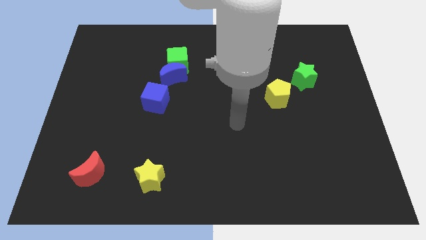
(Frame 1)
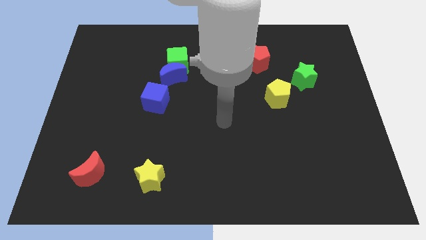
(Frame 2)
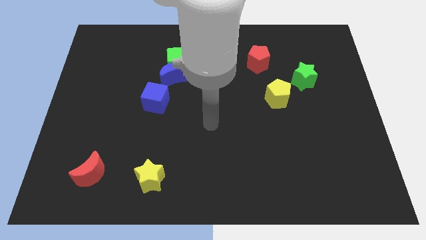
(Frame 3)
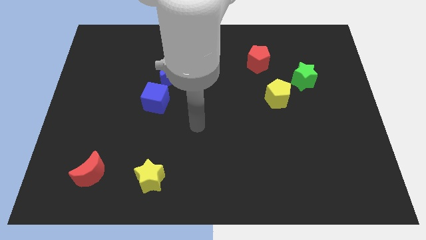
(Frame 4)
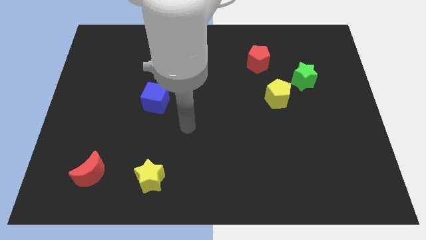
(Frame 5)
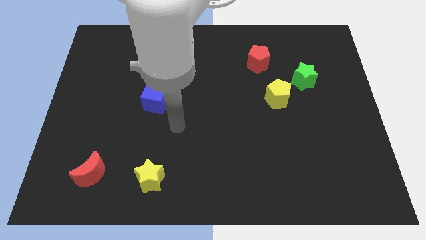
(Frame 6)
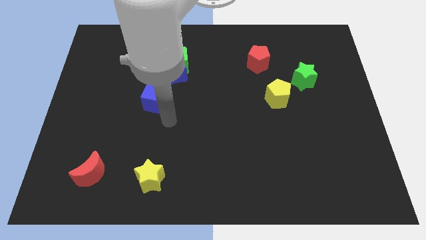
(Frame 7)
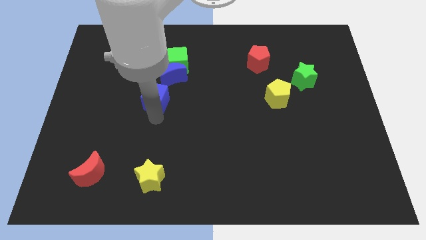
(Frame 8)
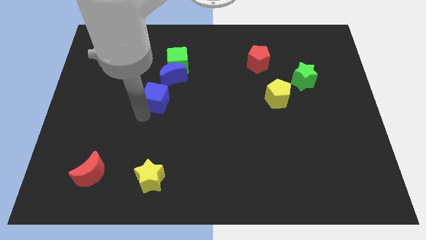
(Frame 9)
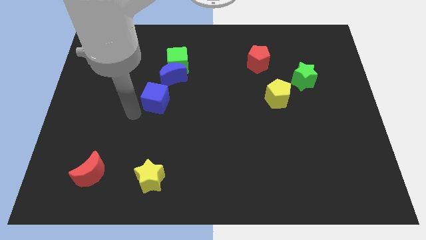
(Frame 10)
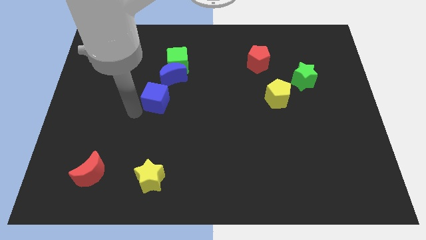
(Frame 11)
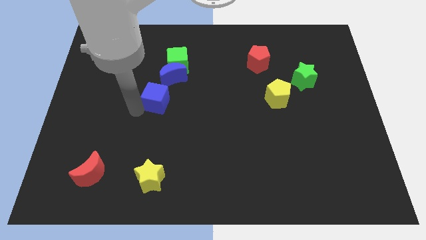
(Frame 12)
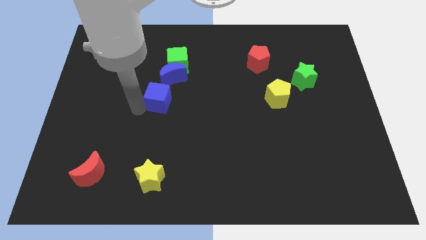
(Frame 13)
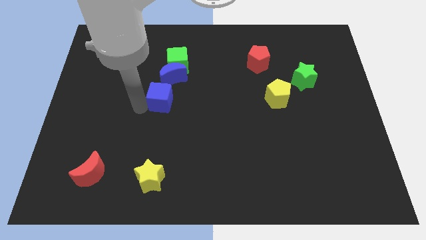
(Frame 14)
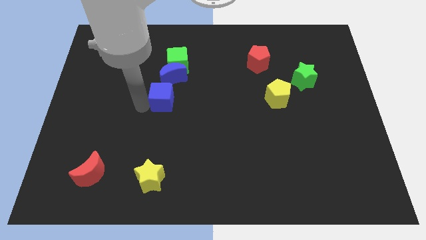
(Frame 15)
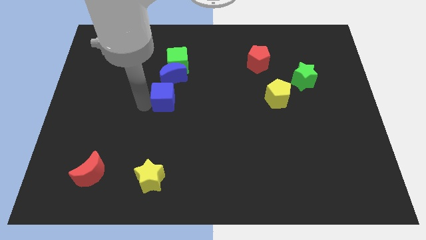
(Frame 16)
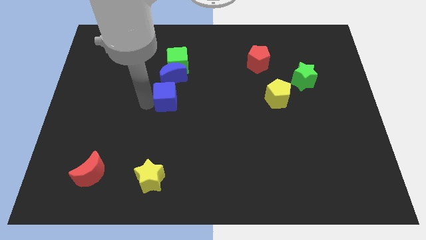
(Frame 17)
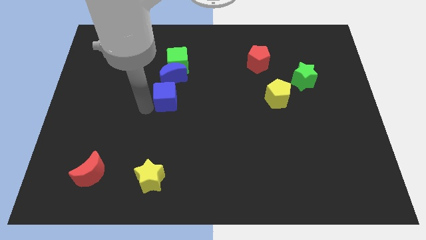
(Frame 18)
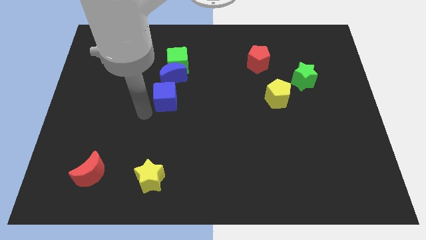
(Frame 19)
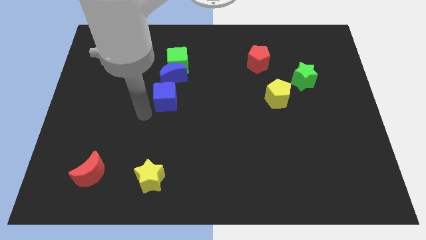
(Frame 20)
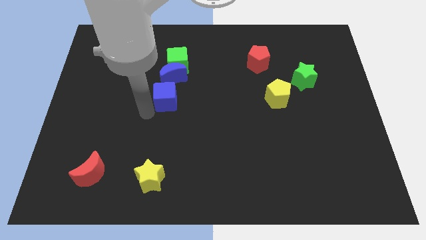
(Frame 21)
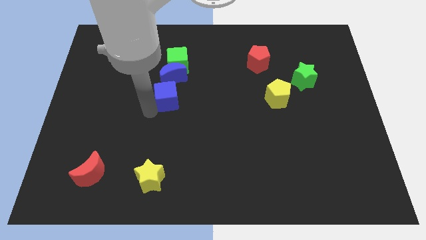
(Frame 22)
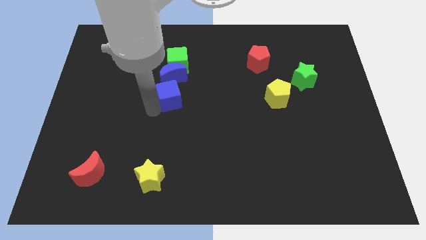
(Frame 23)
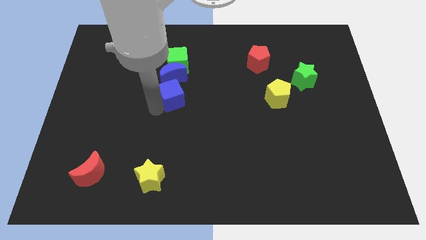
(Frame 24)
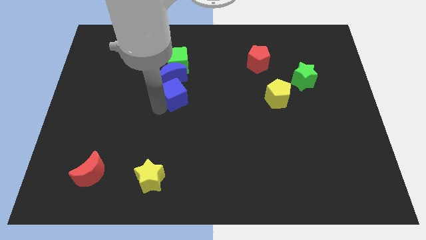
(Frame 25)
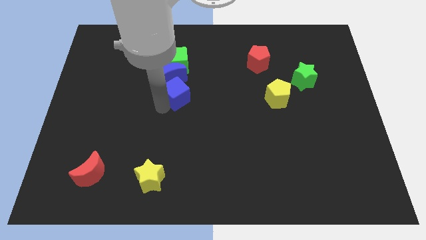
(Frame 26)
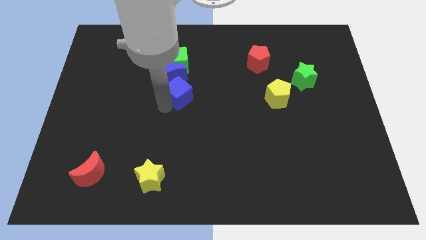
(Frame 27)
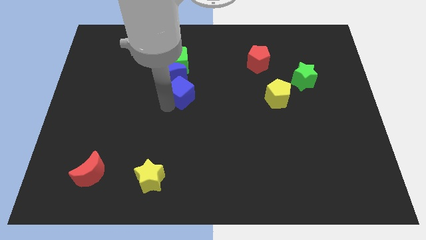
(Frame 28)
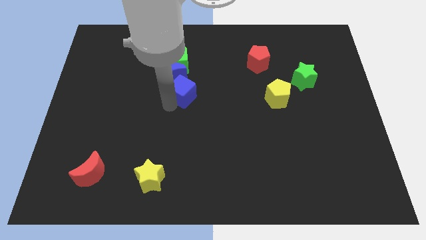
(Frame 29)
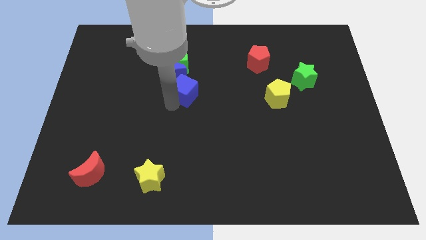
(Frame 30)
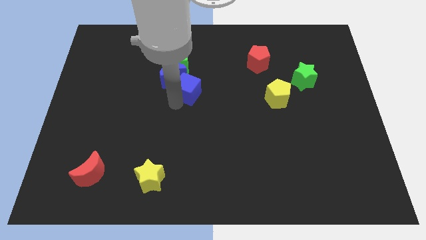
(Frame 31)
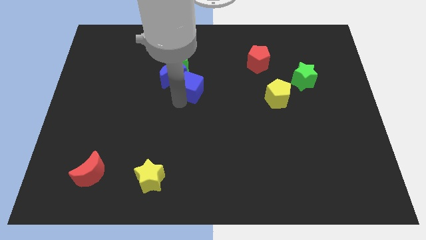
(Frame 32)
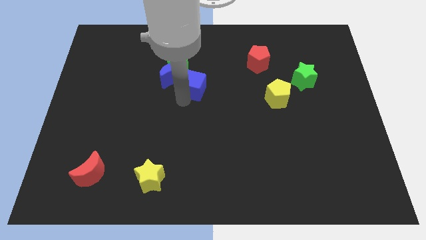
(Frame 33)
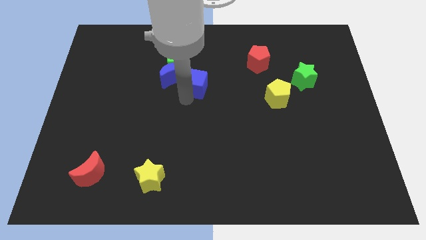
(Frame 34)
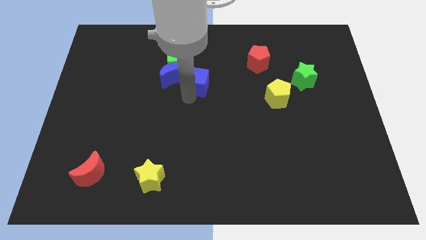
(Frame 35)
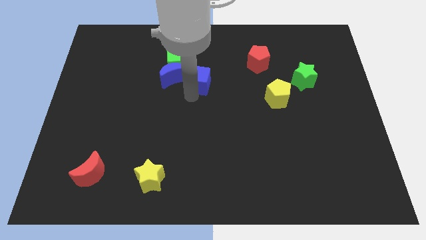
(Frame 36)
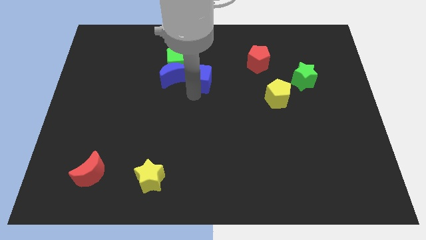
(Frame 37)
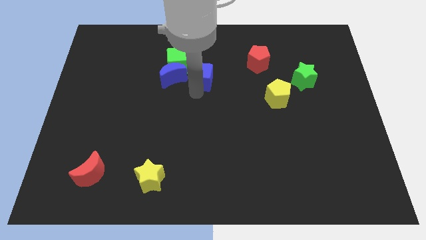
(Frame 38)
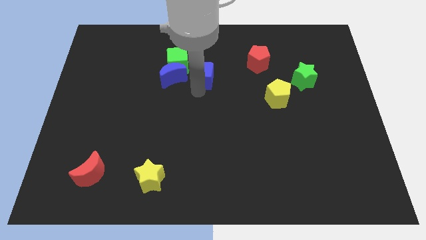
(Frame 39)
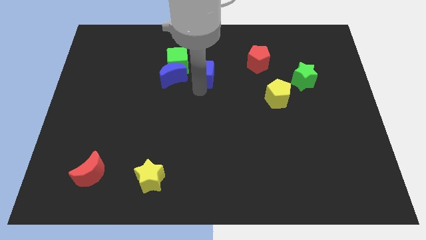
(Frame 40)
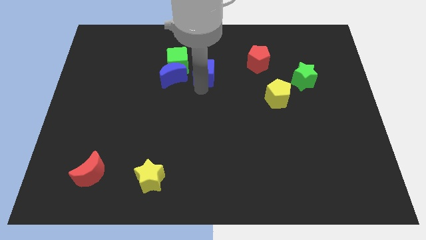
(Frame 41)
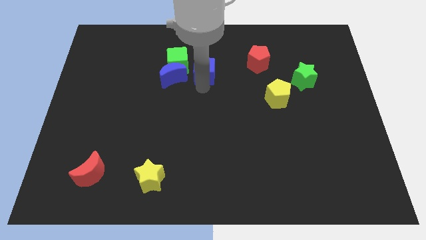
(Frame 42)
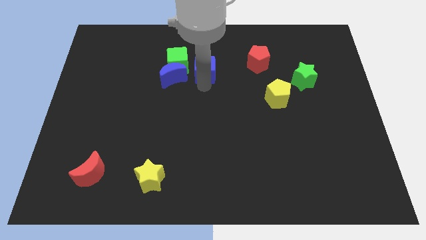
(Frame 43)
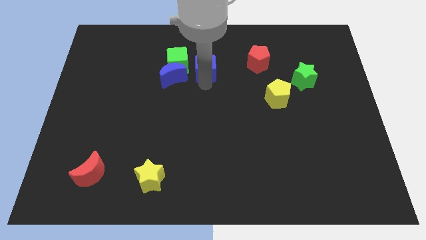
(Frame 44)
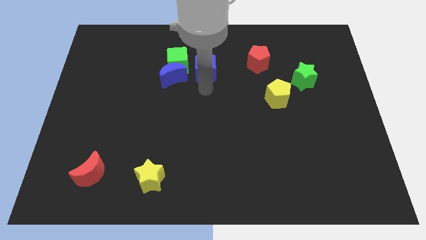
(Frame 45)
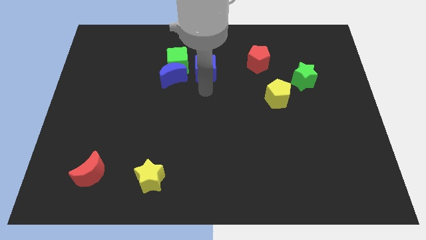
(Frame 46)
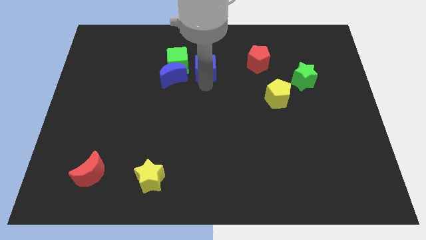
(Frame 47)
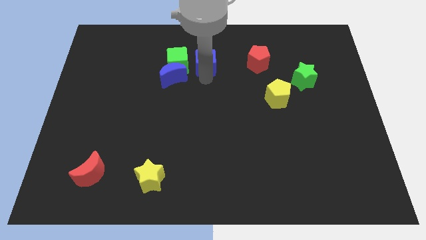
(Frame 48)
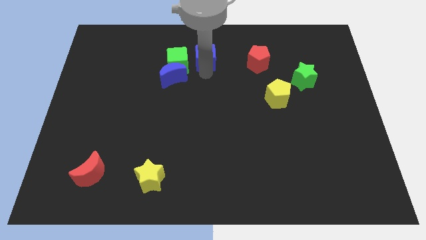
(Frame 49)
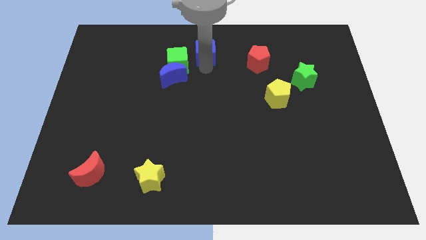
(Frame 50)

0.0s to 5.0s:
slide the blue cube to the towards your base

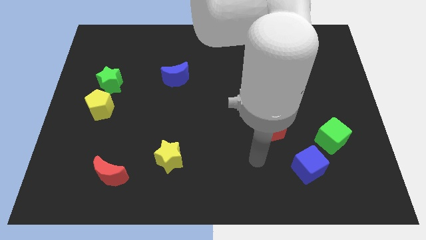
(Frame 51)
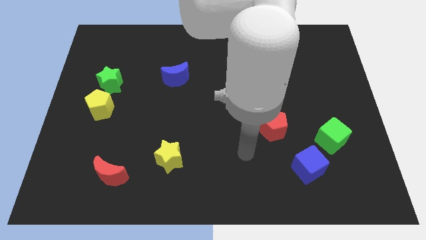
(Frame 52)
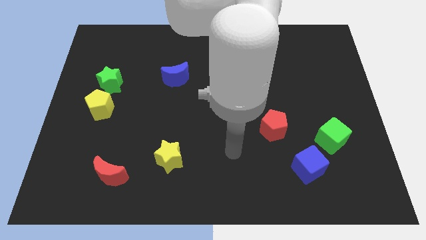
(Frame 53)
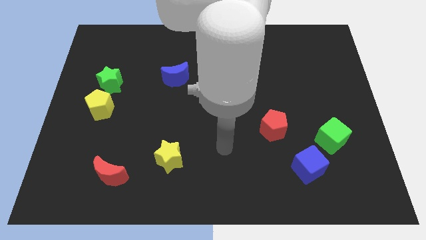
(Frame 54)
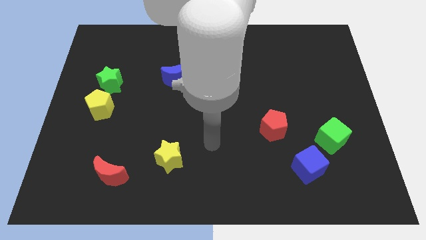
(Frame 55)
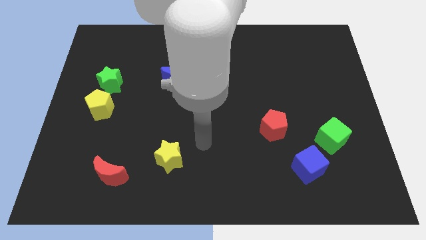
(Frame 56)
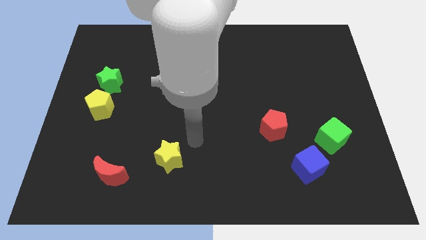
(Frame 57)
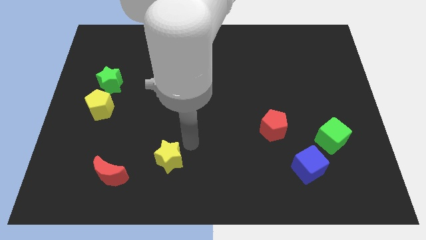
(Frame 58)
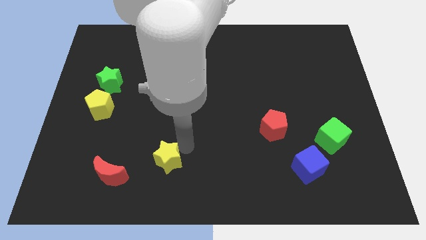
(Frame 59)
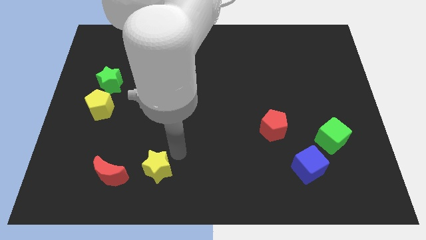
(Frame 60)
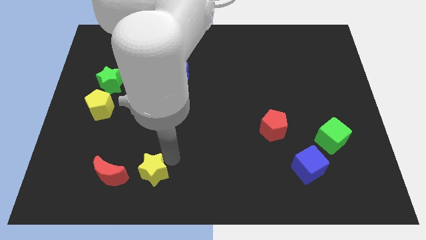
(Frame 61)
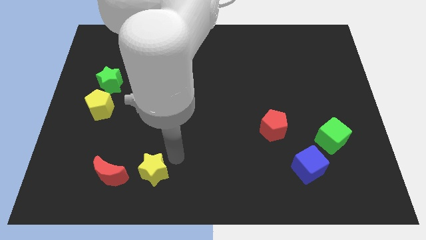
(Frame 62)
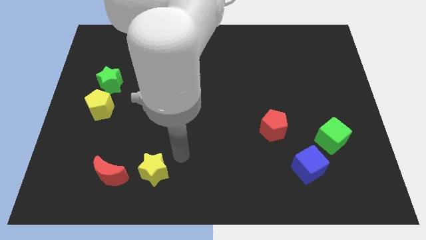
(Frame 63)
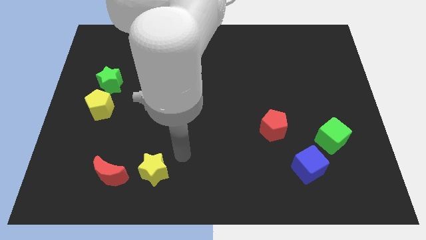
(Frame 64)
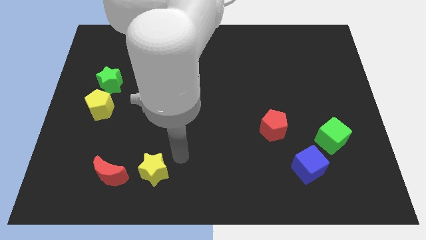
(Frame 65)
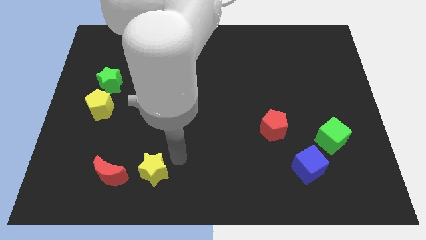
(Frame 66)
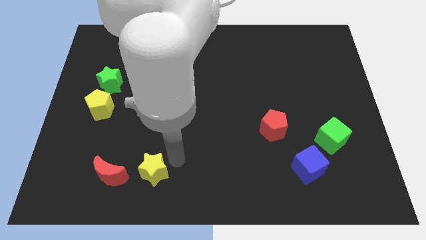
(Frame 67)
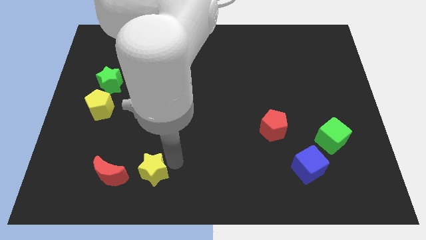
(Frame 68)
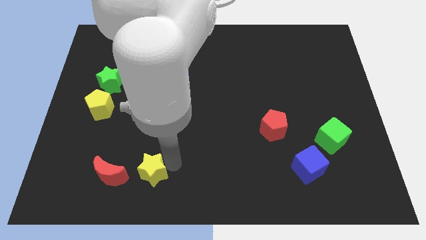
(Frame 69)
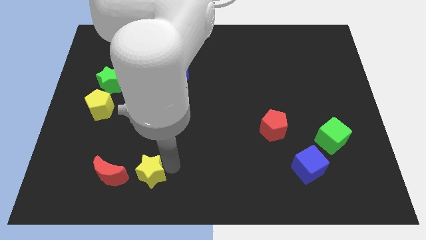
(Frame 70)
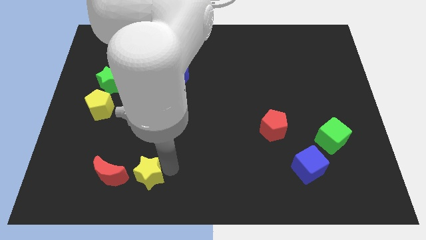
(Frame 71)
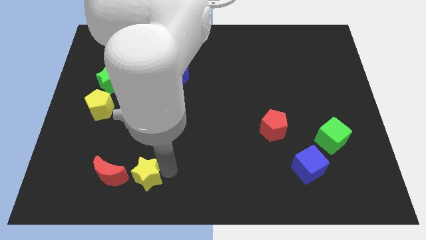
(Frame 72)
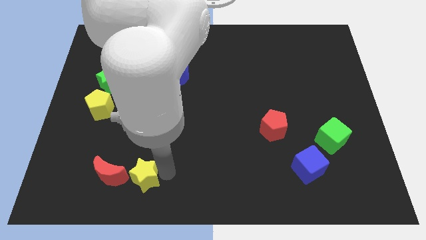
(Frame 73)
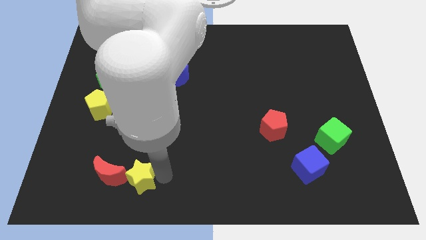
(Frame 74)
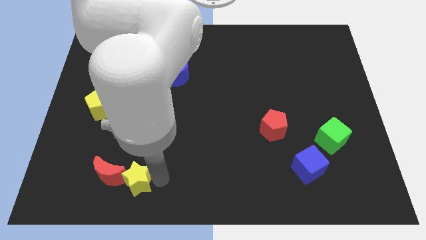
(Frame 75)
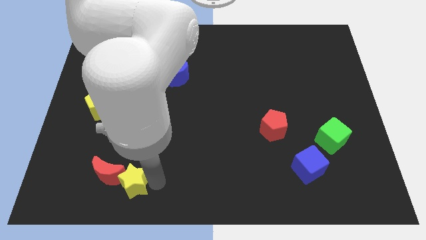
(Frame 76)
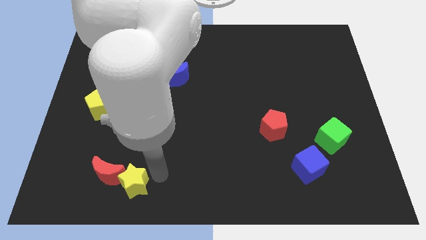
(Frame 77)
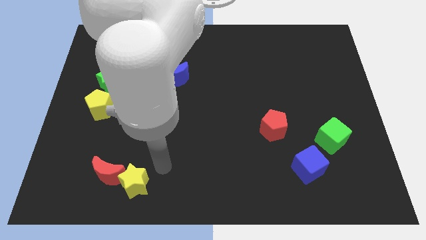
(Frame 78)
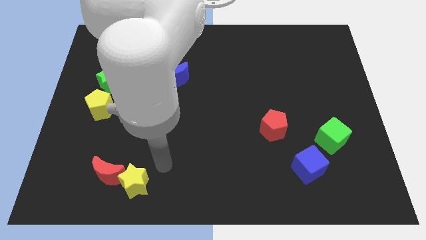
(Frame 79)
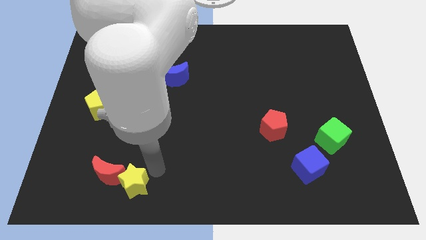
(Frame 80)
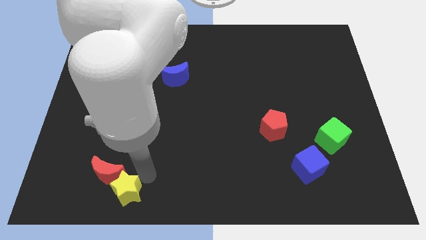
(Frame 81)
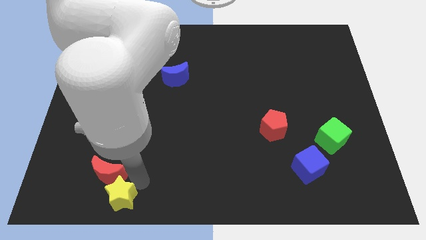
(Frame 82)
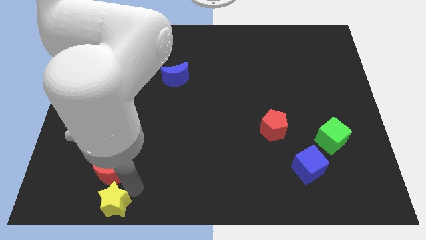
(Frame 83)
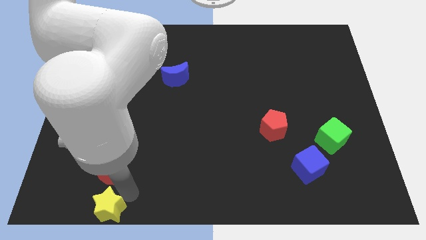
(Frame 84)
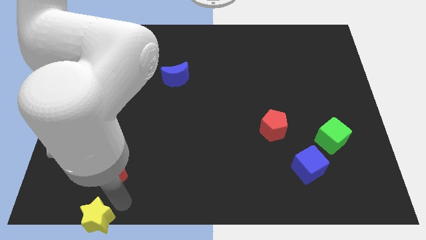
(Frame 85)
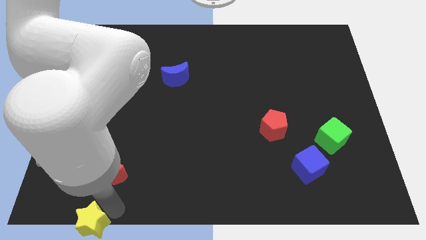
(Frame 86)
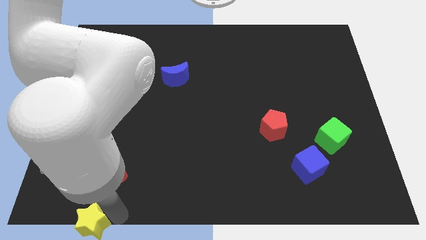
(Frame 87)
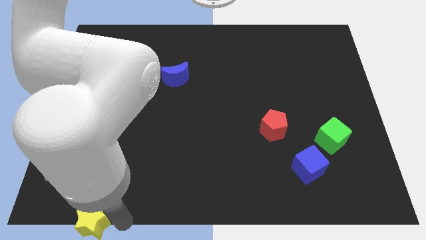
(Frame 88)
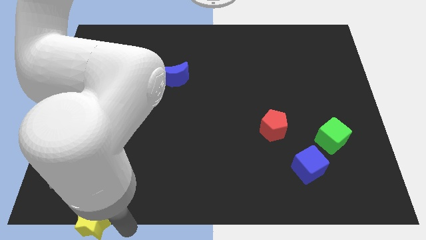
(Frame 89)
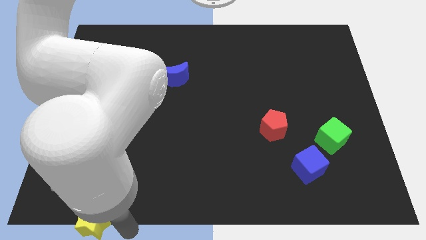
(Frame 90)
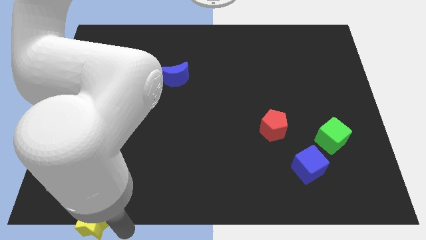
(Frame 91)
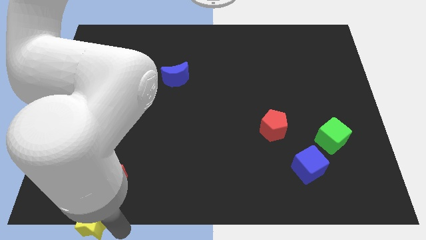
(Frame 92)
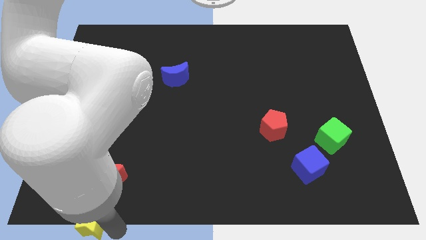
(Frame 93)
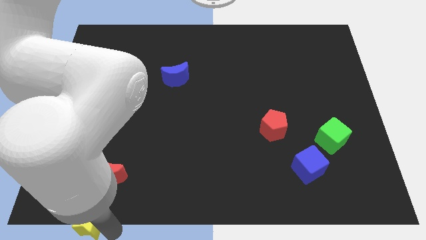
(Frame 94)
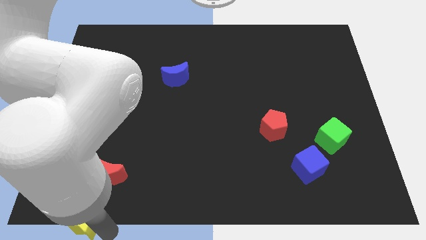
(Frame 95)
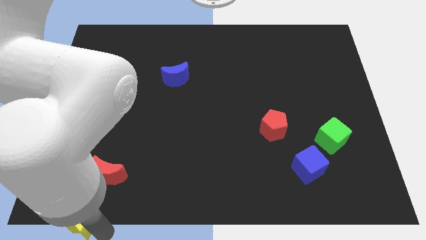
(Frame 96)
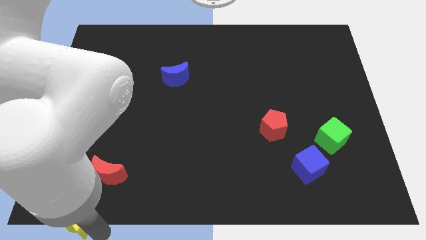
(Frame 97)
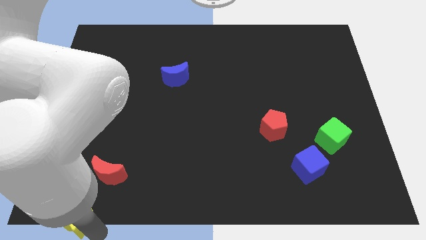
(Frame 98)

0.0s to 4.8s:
slide the yellow star to the bottom left corner
